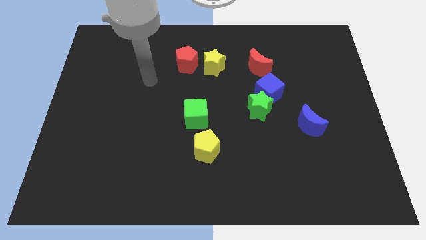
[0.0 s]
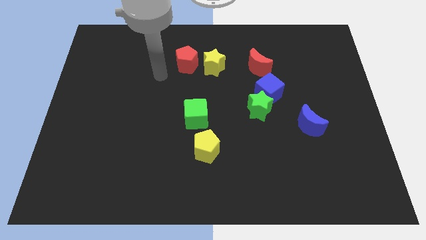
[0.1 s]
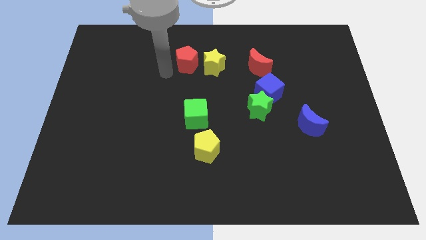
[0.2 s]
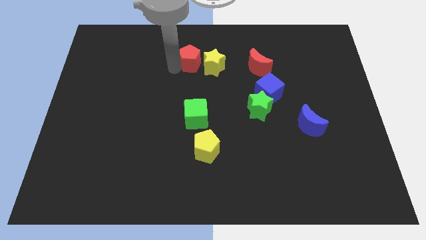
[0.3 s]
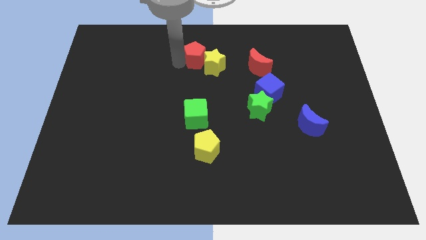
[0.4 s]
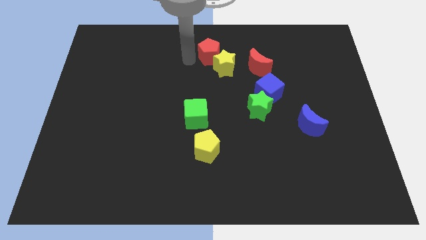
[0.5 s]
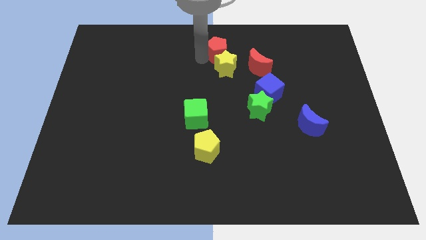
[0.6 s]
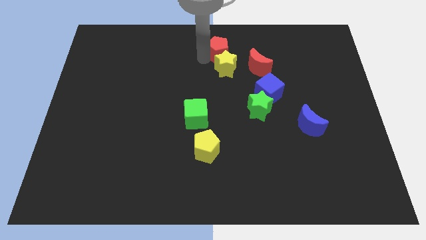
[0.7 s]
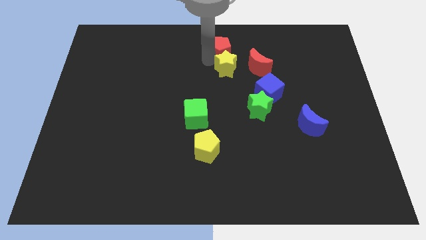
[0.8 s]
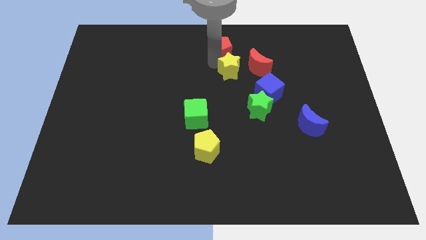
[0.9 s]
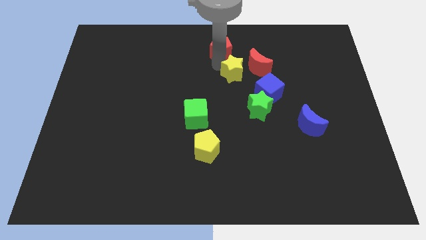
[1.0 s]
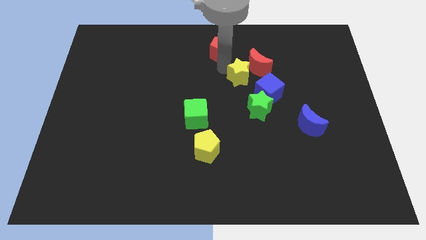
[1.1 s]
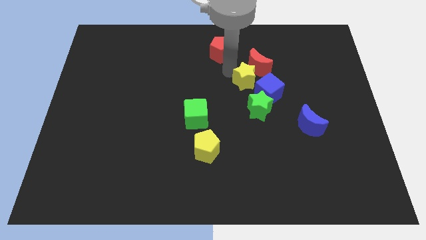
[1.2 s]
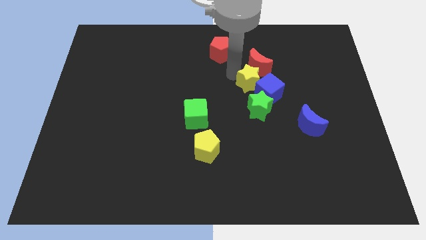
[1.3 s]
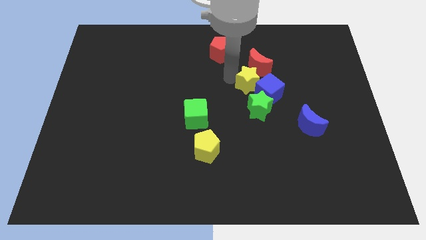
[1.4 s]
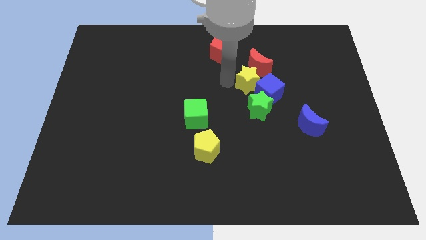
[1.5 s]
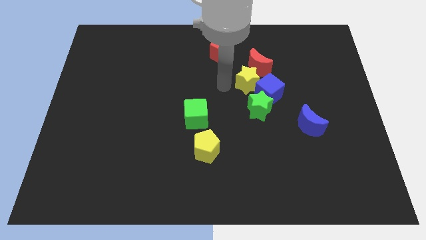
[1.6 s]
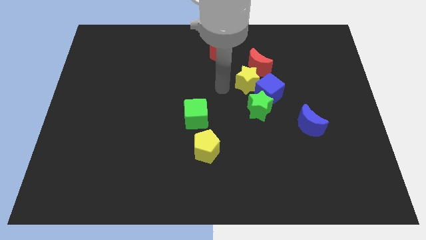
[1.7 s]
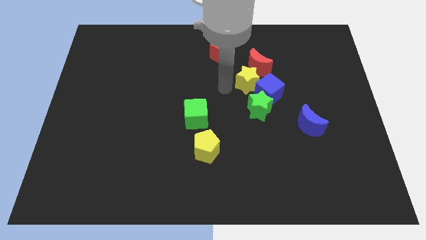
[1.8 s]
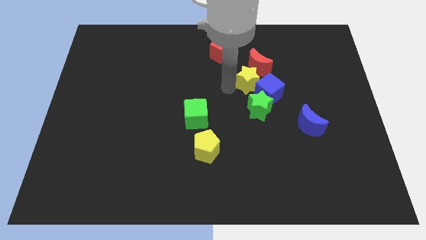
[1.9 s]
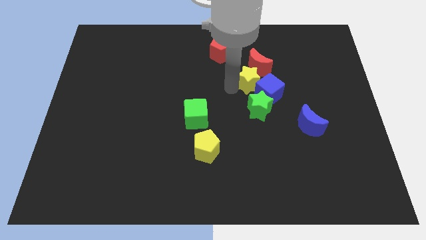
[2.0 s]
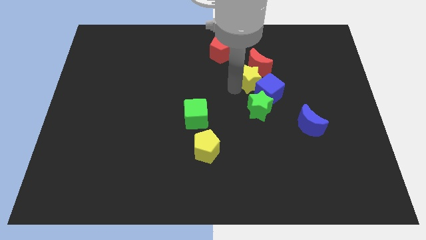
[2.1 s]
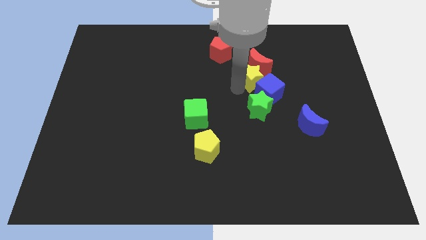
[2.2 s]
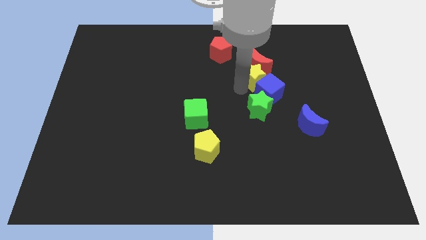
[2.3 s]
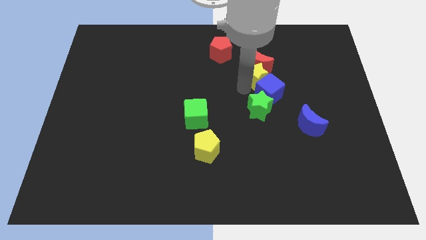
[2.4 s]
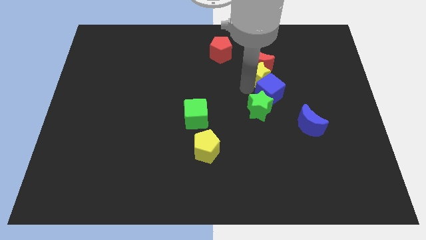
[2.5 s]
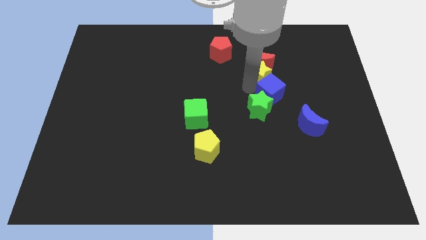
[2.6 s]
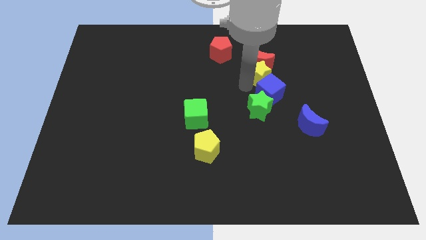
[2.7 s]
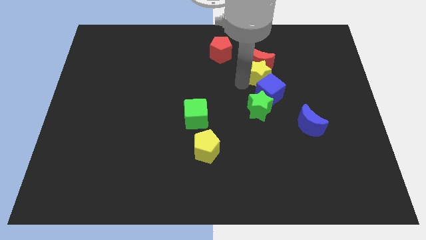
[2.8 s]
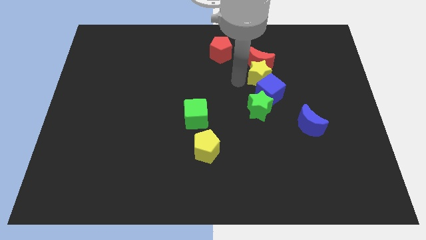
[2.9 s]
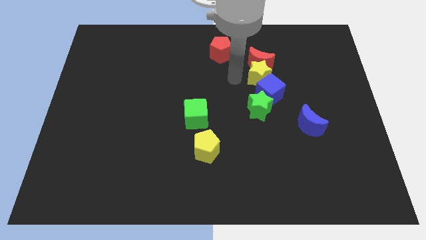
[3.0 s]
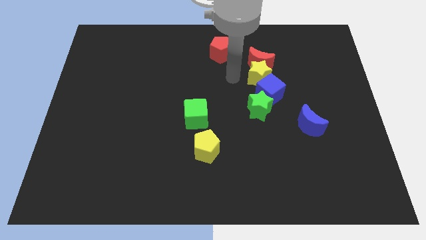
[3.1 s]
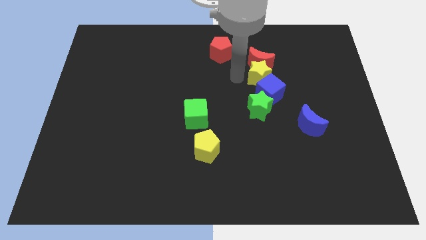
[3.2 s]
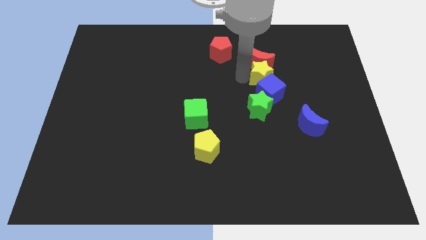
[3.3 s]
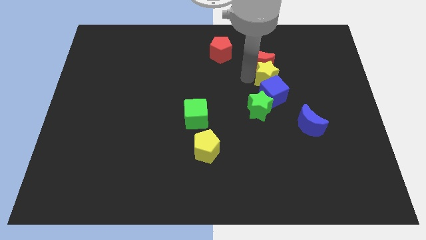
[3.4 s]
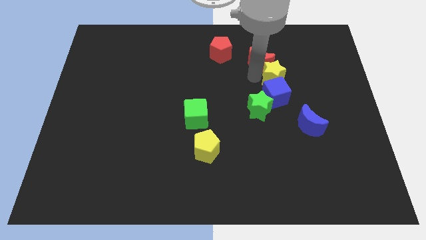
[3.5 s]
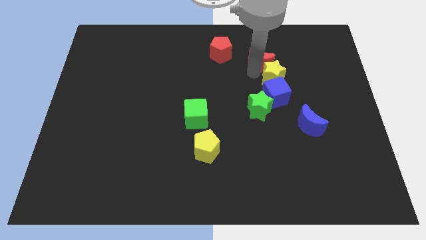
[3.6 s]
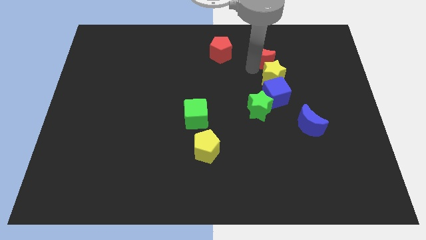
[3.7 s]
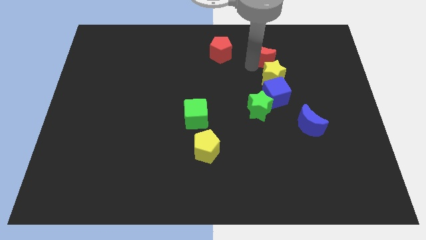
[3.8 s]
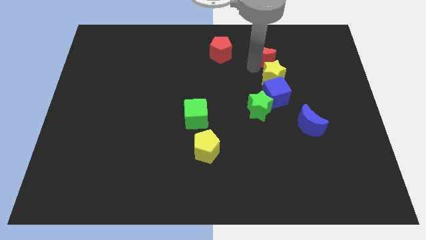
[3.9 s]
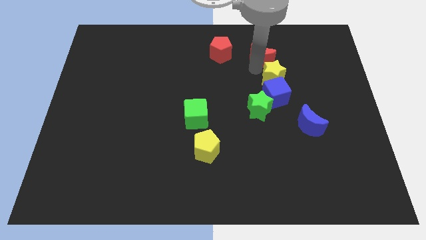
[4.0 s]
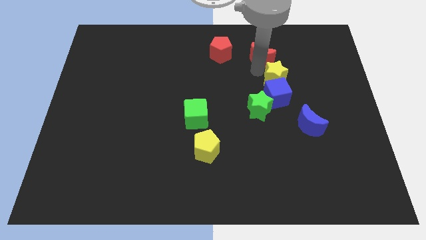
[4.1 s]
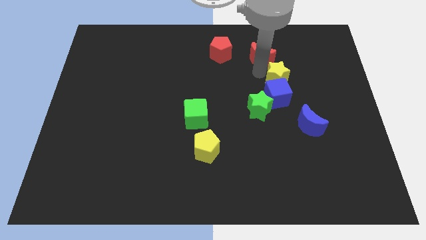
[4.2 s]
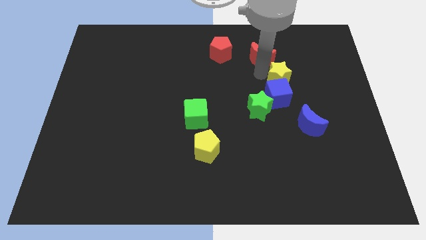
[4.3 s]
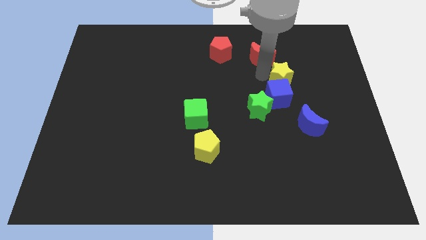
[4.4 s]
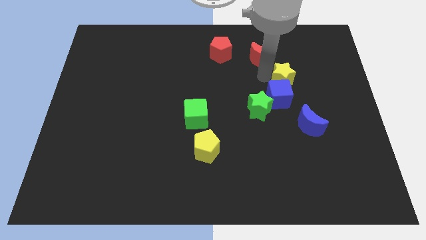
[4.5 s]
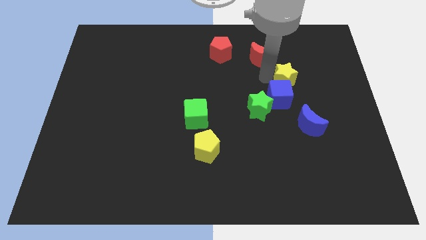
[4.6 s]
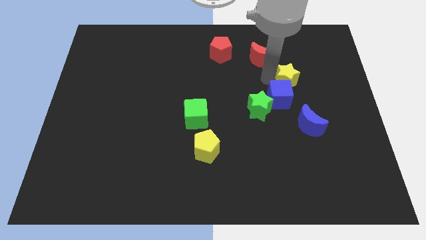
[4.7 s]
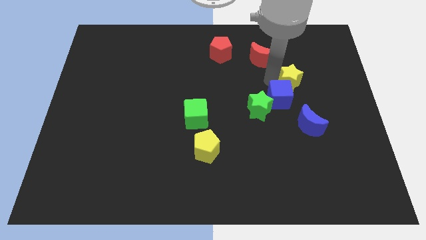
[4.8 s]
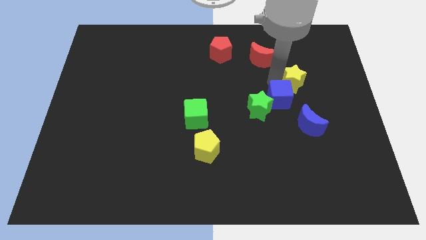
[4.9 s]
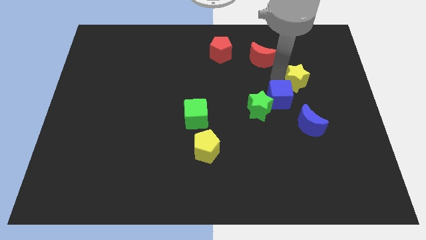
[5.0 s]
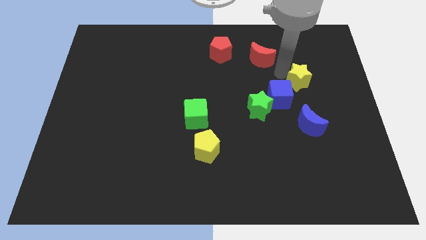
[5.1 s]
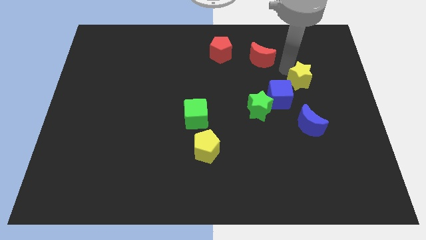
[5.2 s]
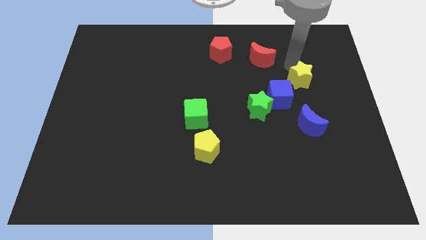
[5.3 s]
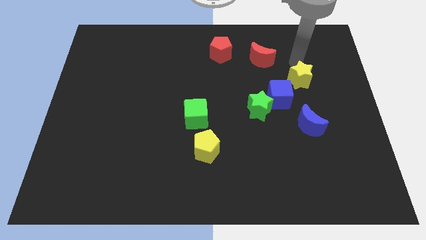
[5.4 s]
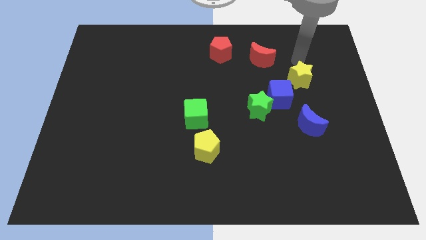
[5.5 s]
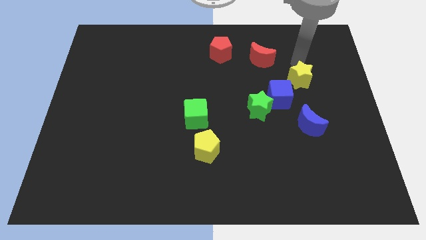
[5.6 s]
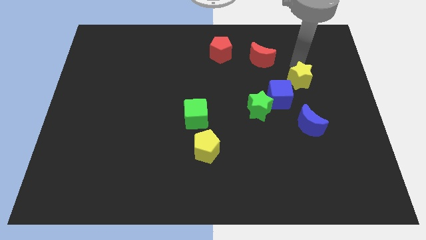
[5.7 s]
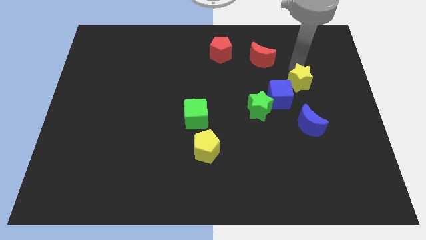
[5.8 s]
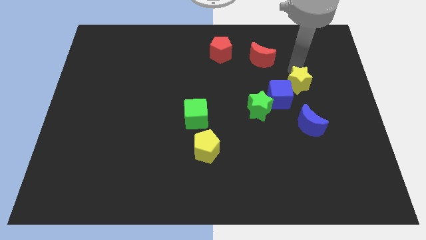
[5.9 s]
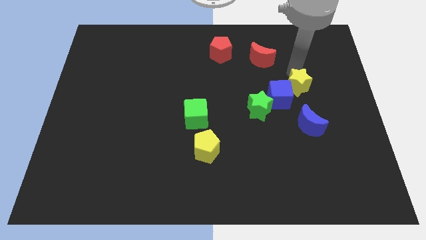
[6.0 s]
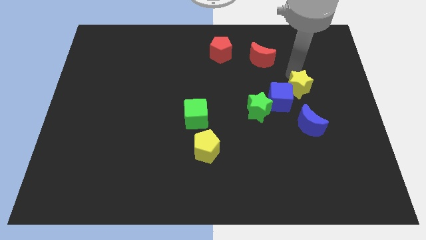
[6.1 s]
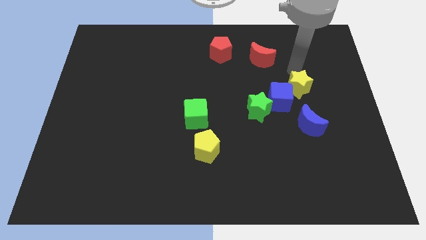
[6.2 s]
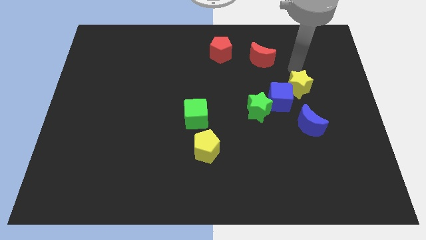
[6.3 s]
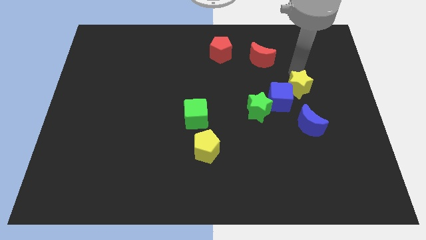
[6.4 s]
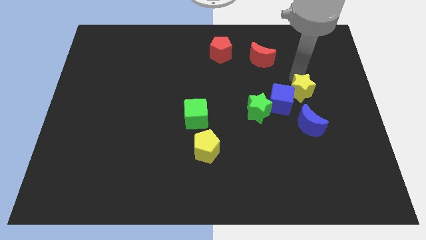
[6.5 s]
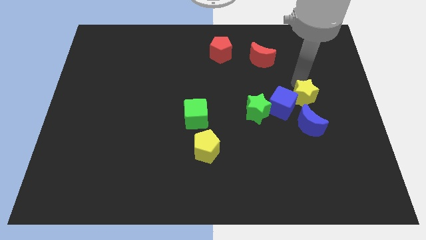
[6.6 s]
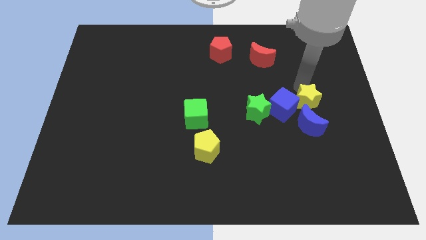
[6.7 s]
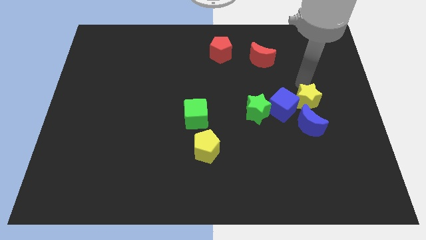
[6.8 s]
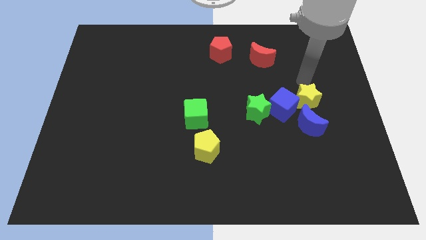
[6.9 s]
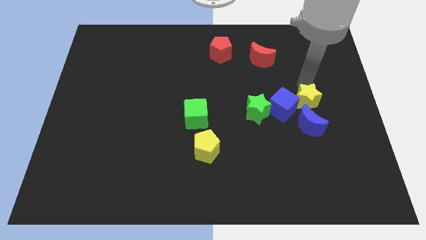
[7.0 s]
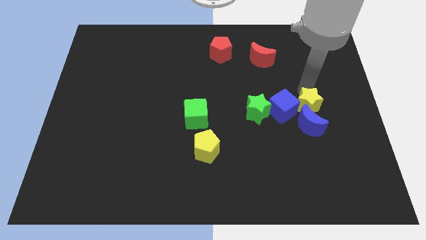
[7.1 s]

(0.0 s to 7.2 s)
put the yellow star close to the blue moon
